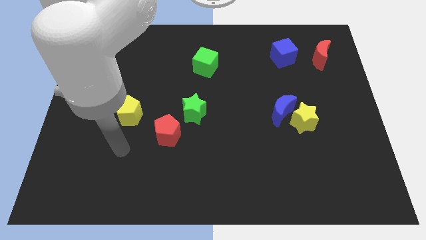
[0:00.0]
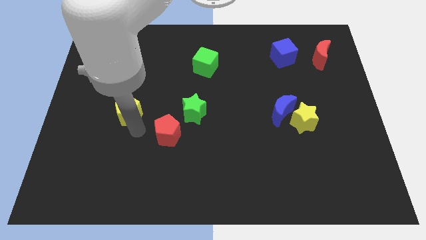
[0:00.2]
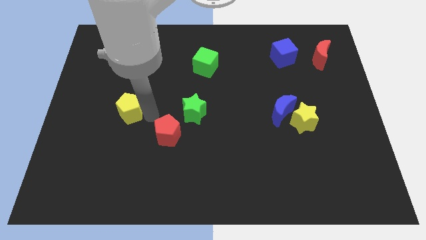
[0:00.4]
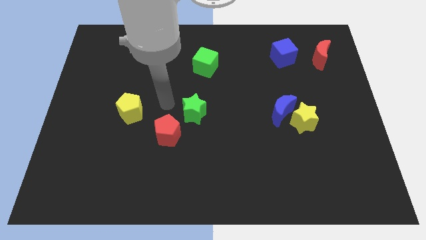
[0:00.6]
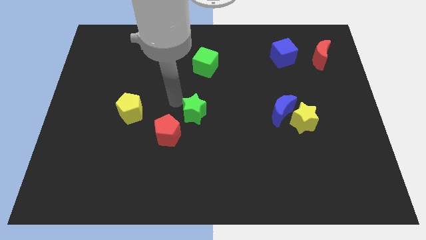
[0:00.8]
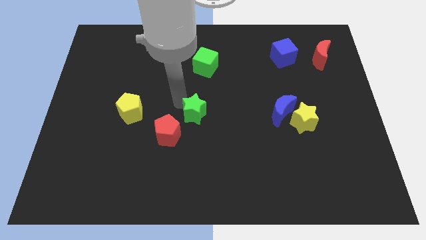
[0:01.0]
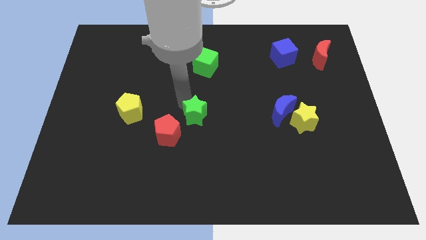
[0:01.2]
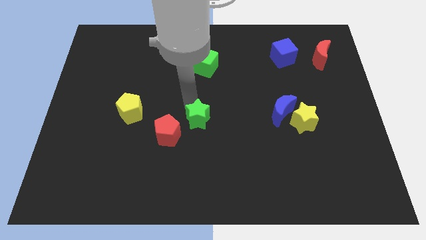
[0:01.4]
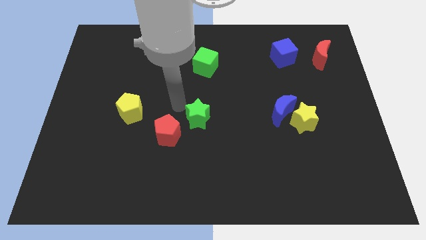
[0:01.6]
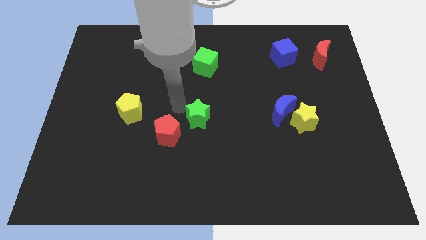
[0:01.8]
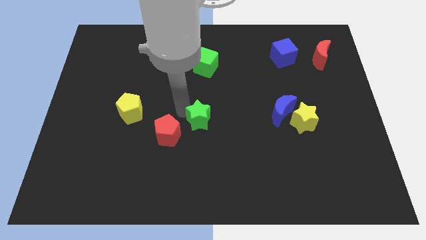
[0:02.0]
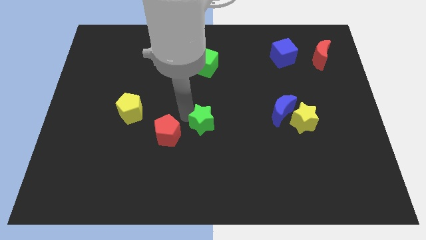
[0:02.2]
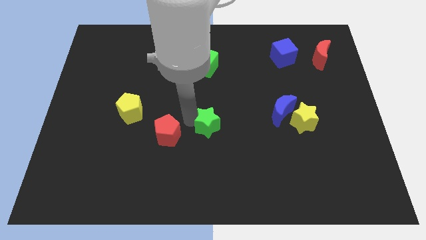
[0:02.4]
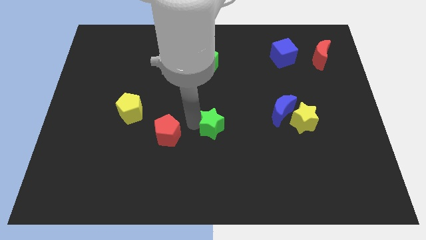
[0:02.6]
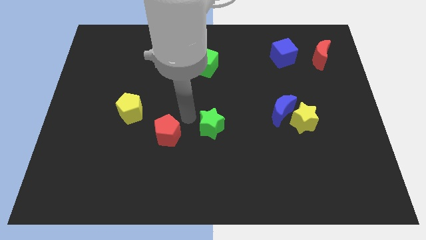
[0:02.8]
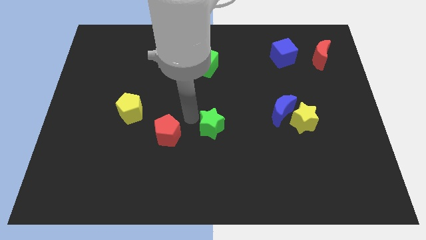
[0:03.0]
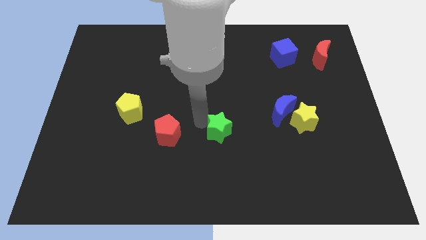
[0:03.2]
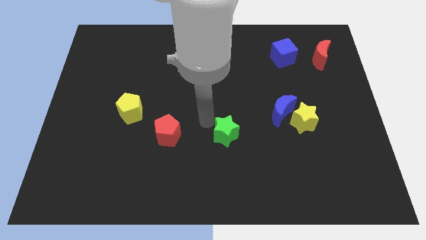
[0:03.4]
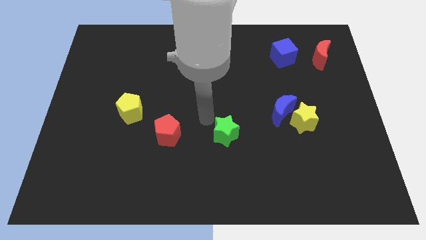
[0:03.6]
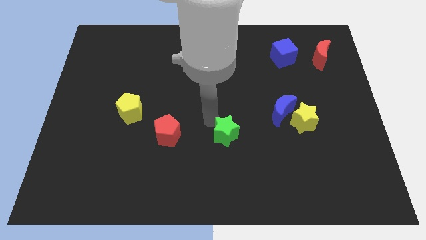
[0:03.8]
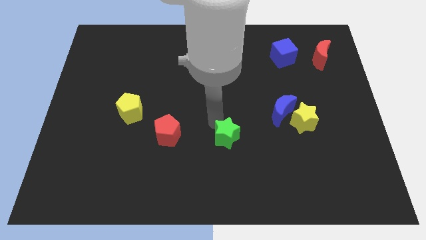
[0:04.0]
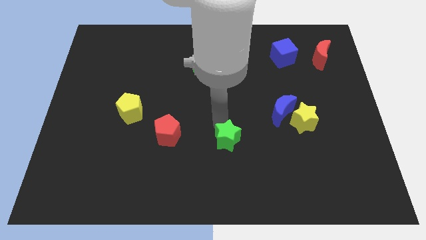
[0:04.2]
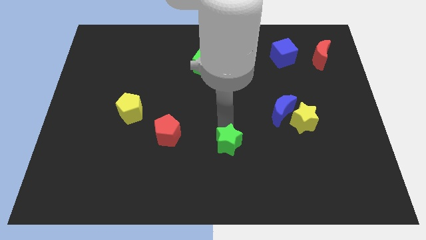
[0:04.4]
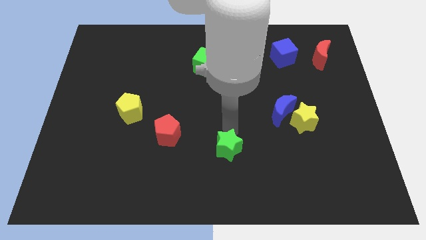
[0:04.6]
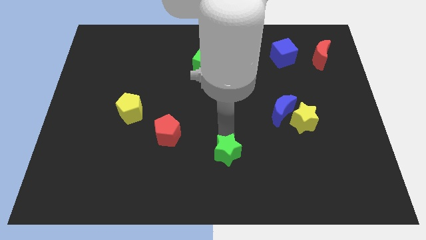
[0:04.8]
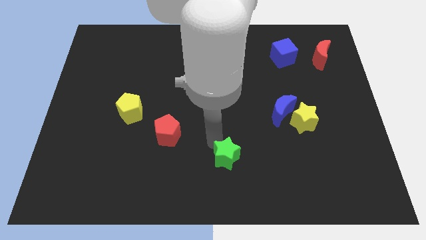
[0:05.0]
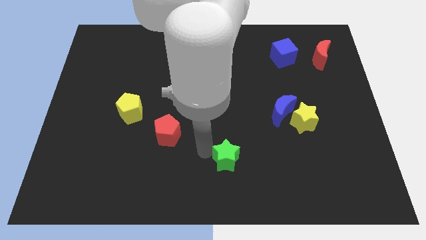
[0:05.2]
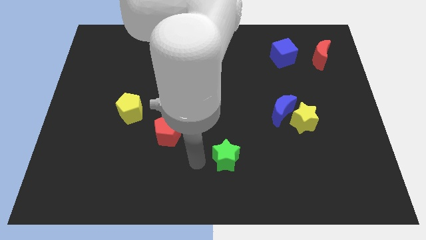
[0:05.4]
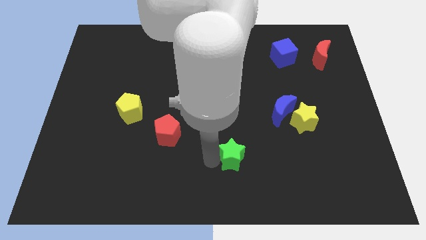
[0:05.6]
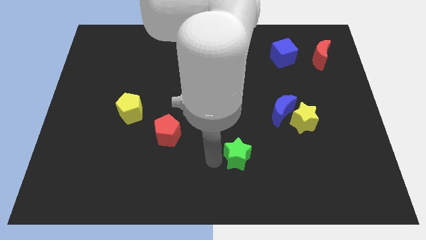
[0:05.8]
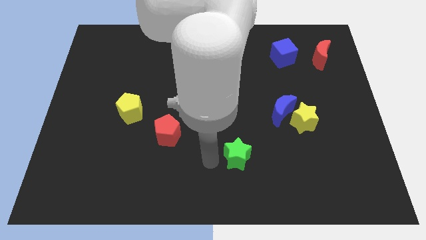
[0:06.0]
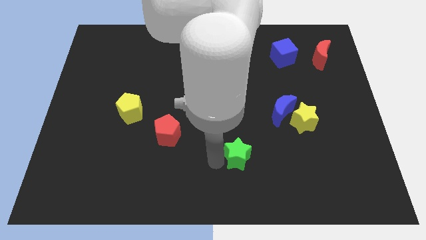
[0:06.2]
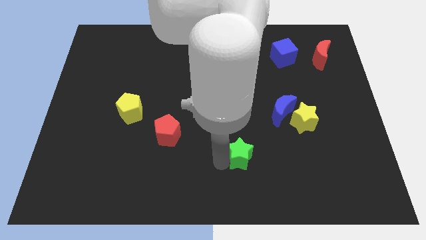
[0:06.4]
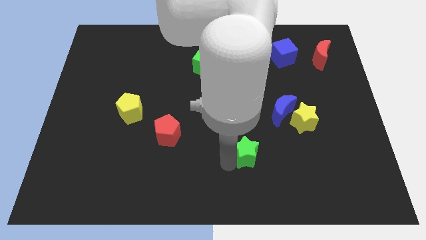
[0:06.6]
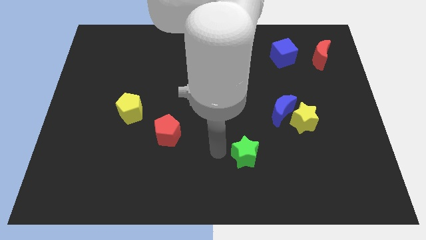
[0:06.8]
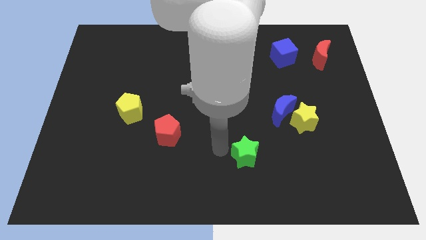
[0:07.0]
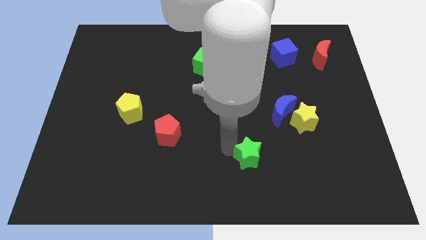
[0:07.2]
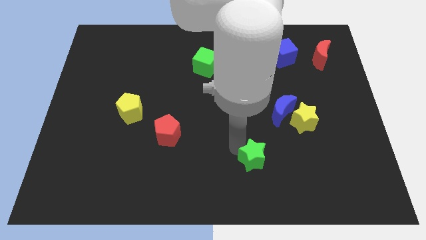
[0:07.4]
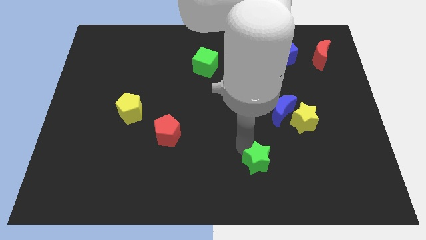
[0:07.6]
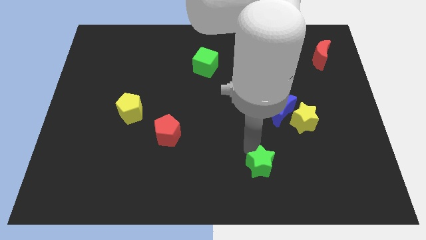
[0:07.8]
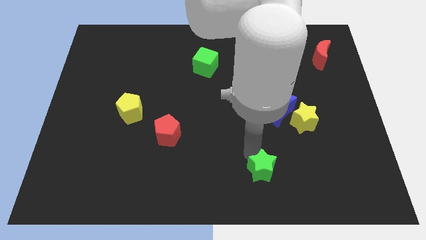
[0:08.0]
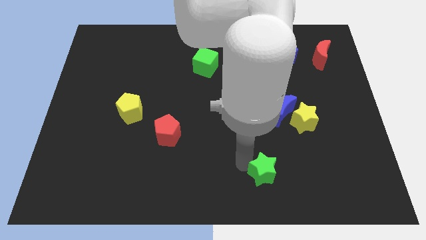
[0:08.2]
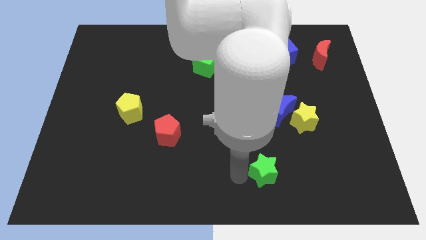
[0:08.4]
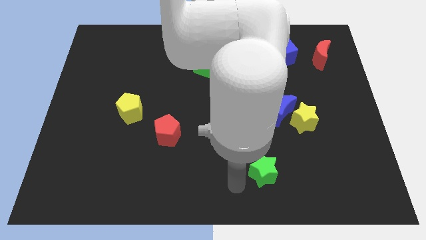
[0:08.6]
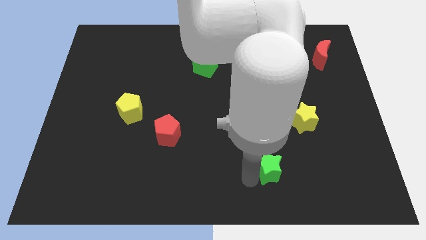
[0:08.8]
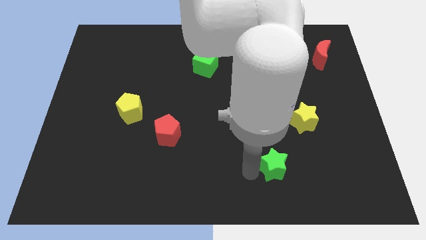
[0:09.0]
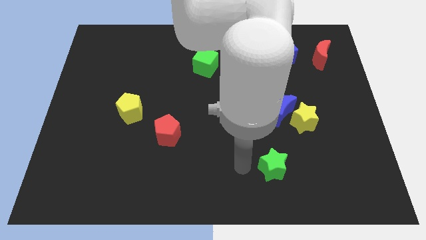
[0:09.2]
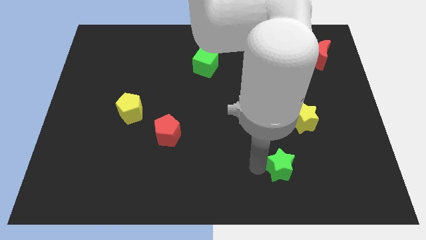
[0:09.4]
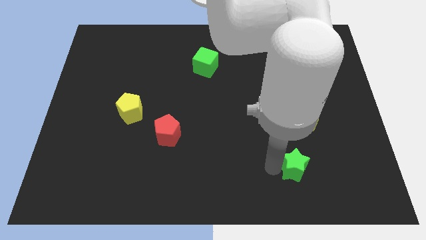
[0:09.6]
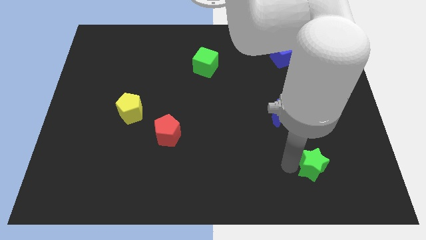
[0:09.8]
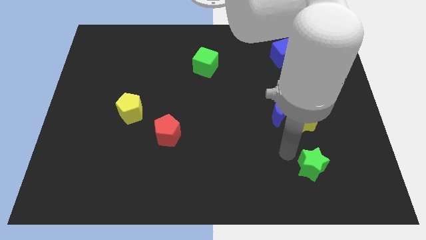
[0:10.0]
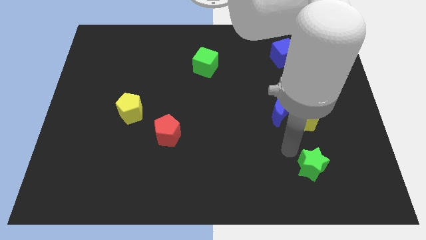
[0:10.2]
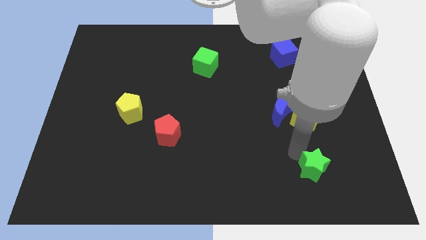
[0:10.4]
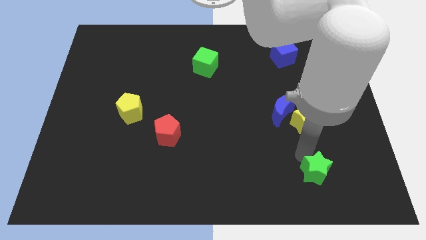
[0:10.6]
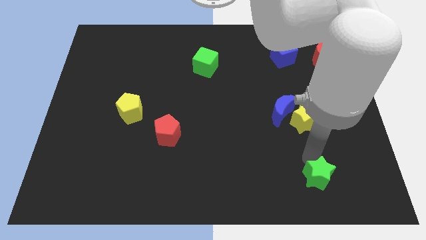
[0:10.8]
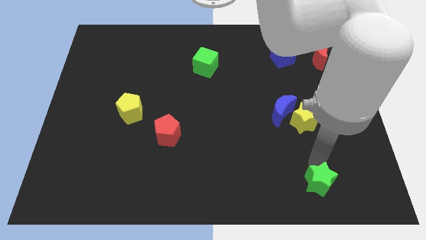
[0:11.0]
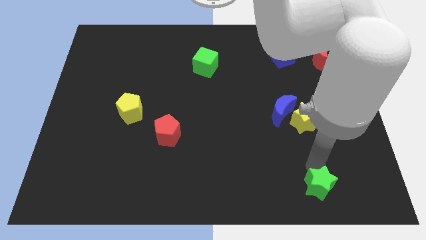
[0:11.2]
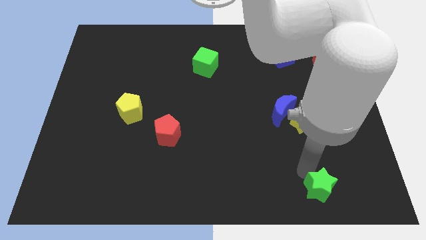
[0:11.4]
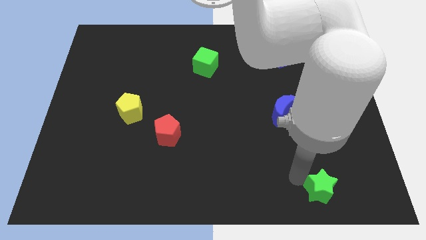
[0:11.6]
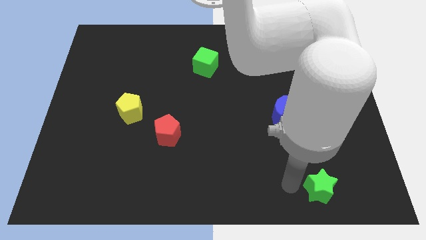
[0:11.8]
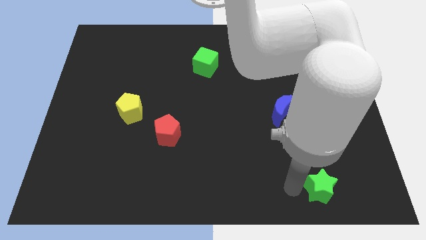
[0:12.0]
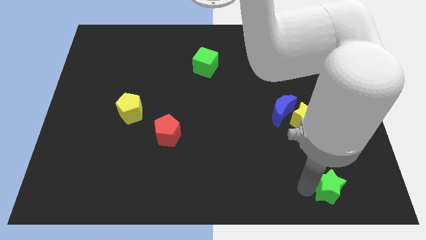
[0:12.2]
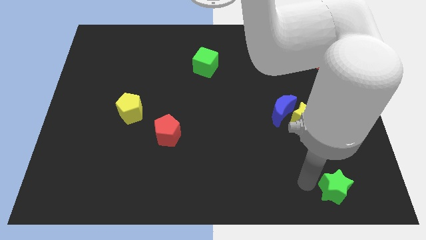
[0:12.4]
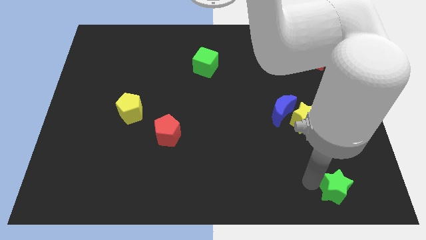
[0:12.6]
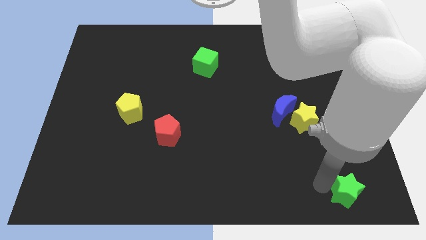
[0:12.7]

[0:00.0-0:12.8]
put the green star to the bottom right corner
